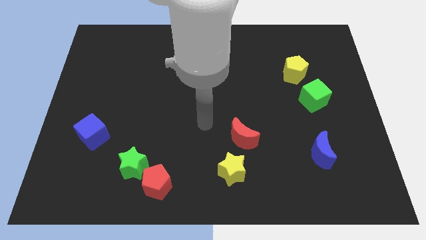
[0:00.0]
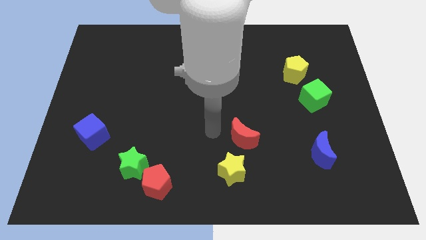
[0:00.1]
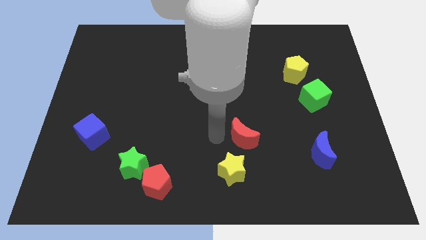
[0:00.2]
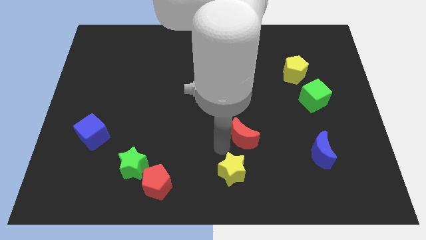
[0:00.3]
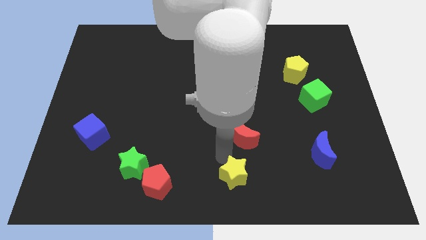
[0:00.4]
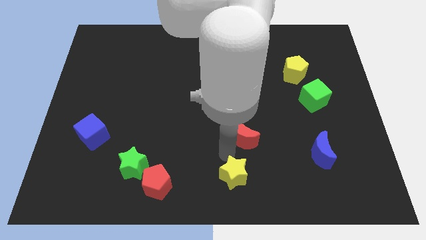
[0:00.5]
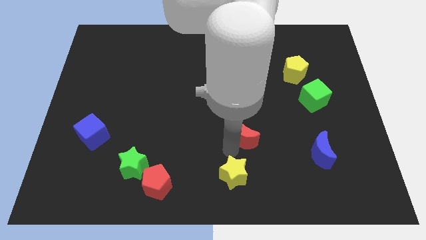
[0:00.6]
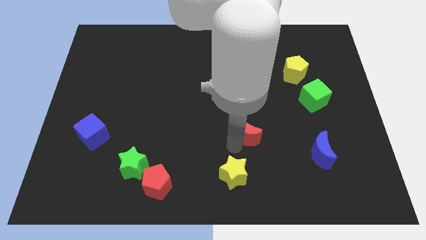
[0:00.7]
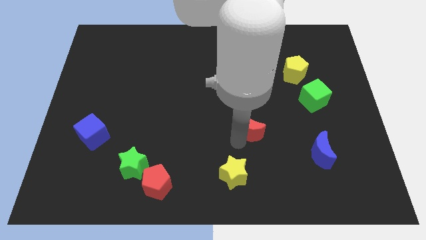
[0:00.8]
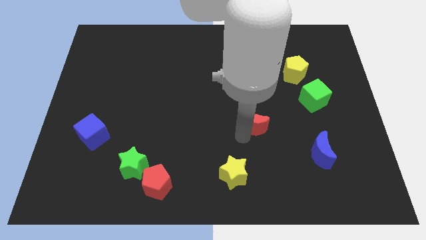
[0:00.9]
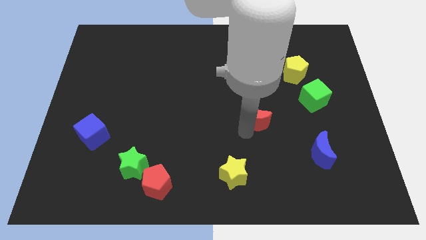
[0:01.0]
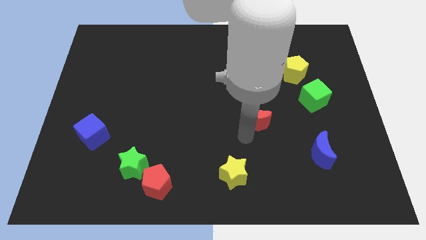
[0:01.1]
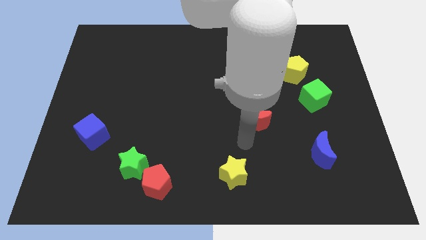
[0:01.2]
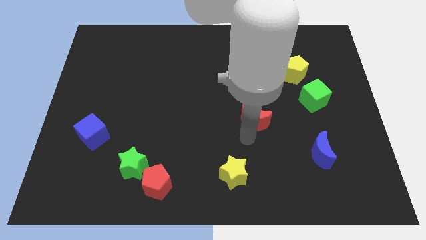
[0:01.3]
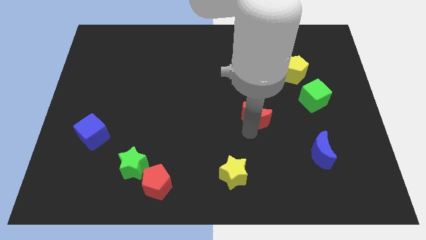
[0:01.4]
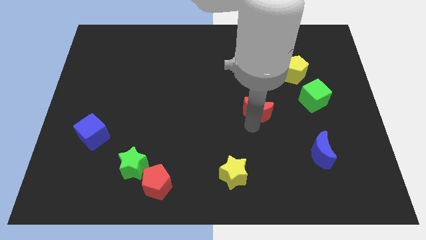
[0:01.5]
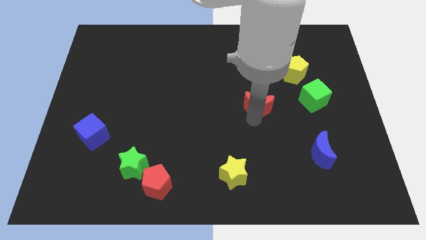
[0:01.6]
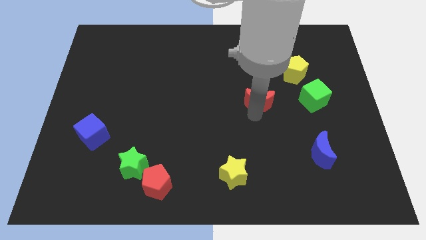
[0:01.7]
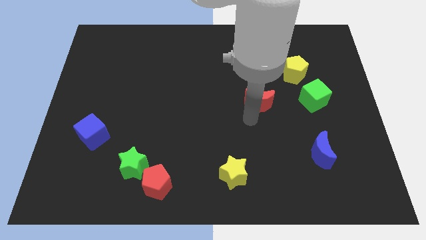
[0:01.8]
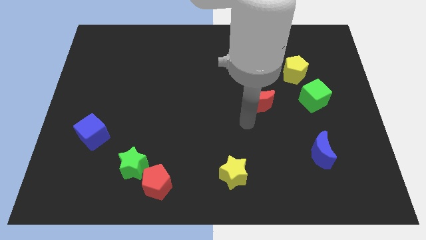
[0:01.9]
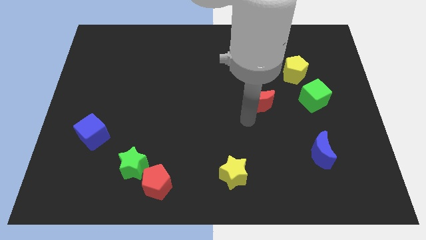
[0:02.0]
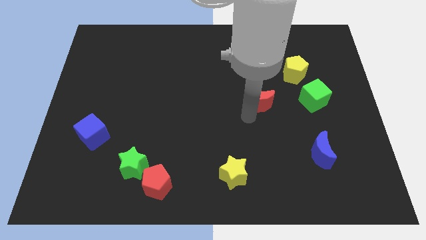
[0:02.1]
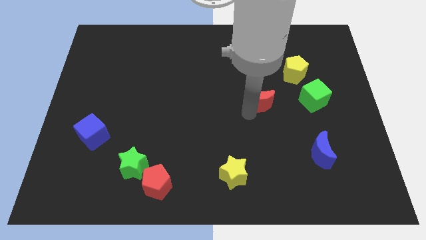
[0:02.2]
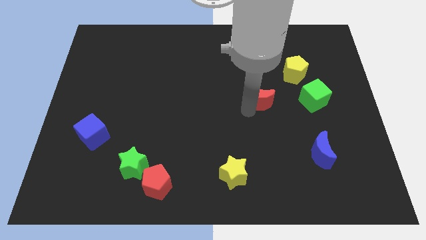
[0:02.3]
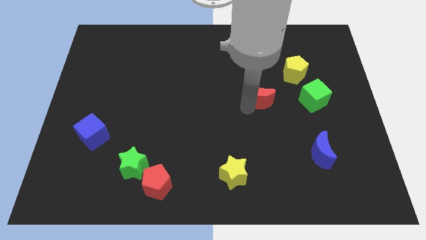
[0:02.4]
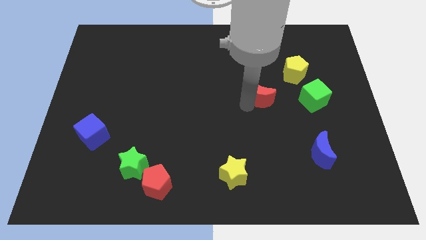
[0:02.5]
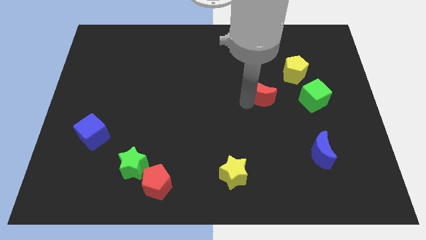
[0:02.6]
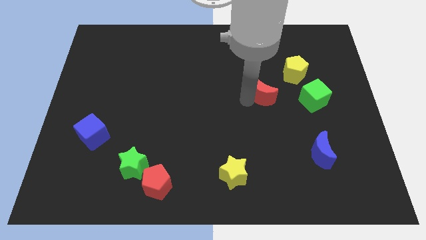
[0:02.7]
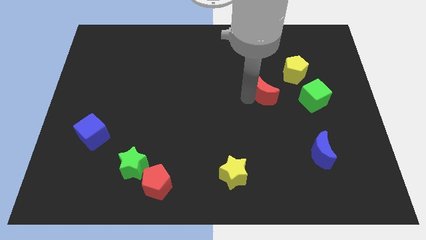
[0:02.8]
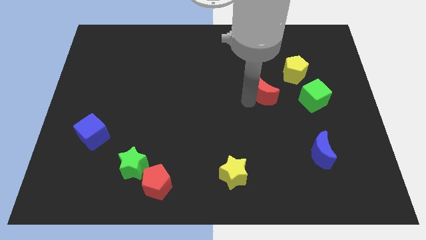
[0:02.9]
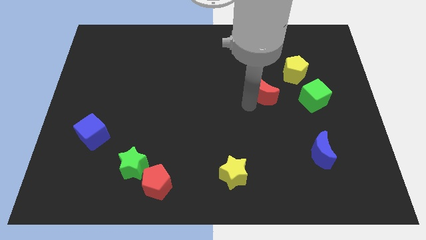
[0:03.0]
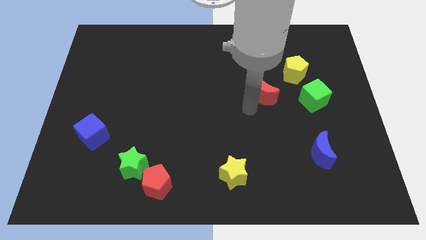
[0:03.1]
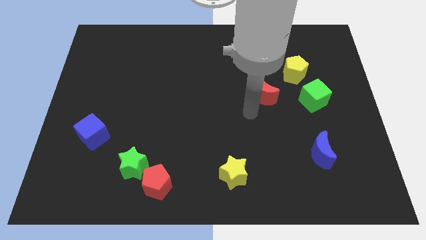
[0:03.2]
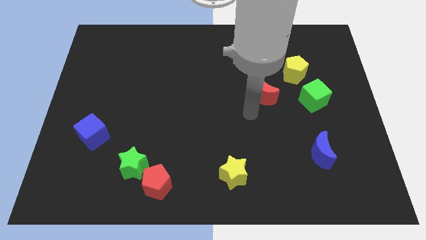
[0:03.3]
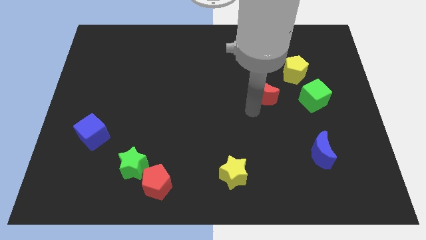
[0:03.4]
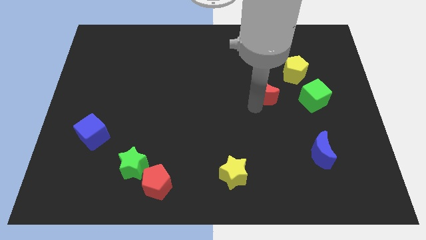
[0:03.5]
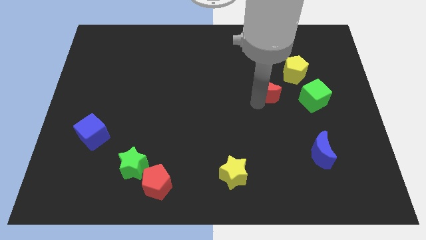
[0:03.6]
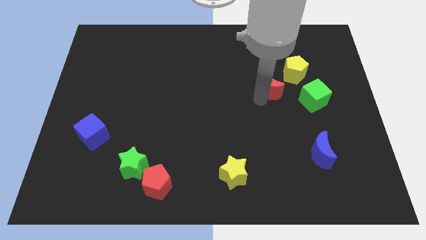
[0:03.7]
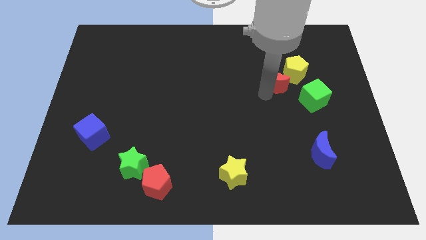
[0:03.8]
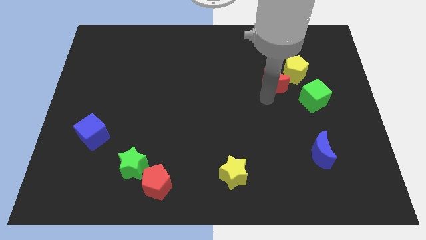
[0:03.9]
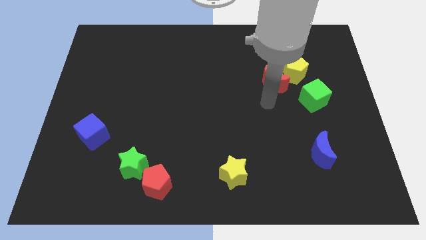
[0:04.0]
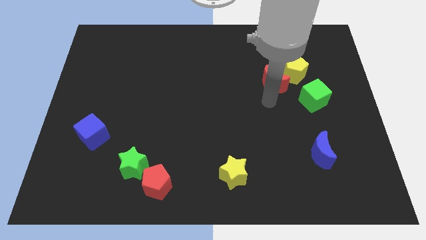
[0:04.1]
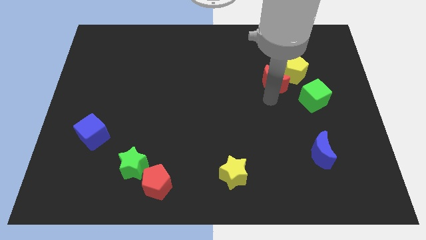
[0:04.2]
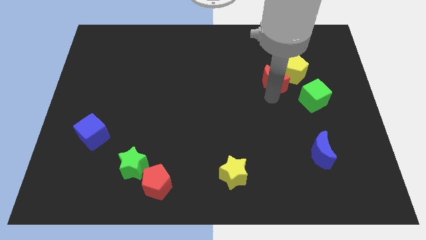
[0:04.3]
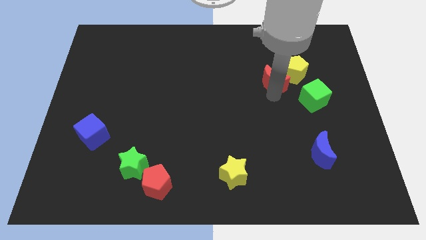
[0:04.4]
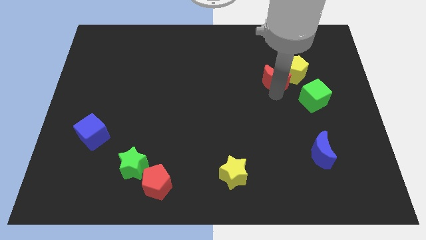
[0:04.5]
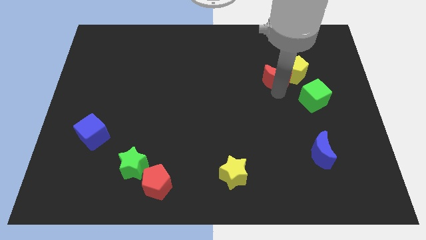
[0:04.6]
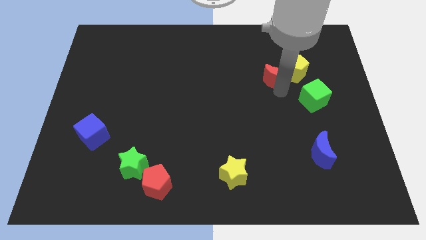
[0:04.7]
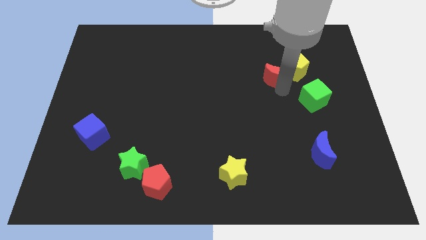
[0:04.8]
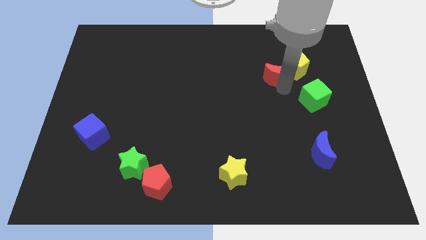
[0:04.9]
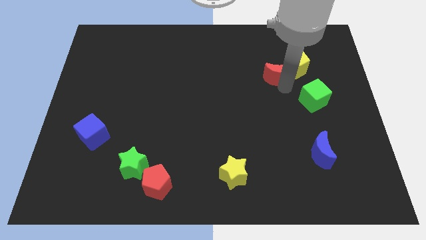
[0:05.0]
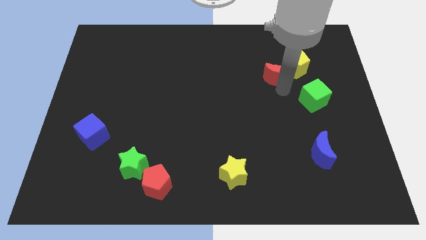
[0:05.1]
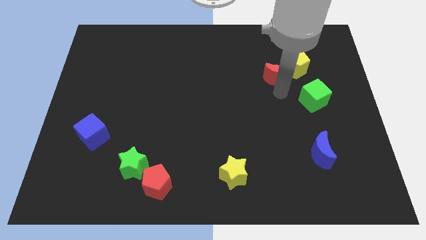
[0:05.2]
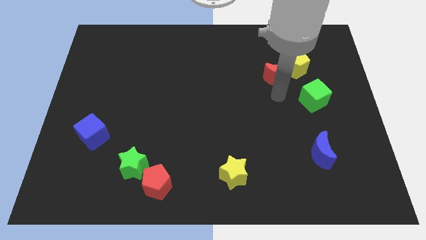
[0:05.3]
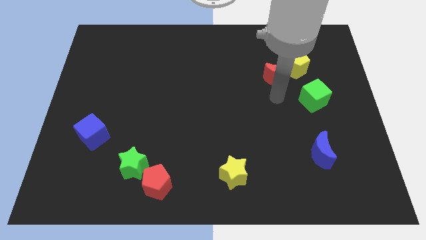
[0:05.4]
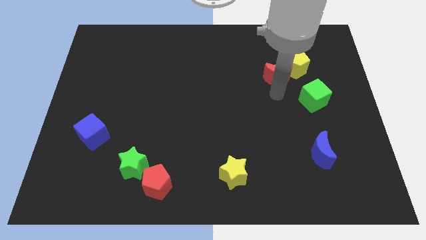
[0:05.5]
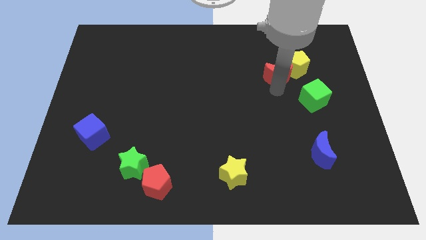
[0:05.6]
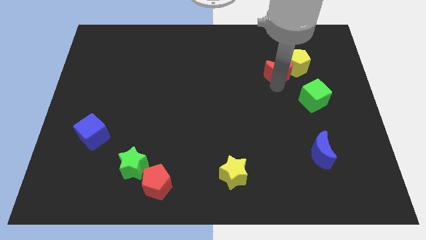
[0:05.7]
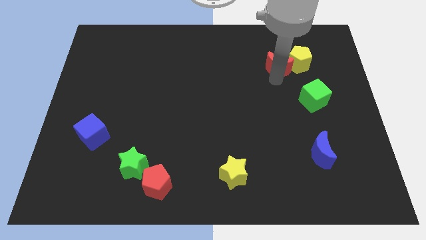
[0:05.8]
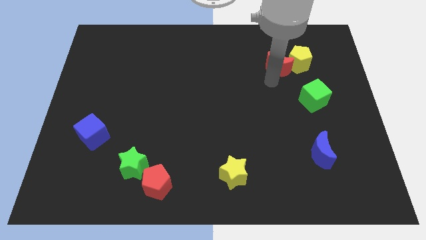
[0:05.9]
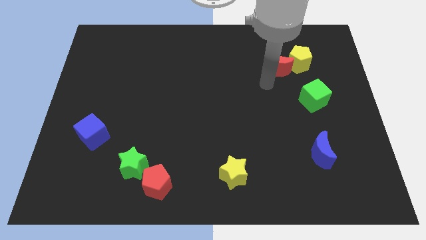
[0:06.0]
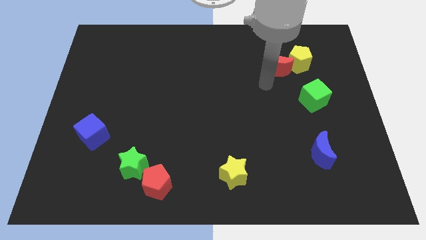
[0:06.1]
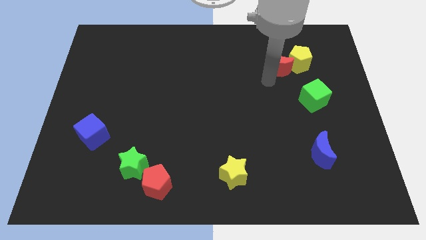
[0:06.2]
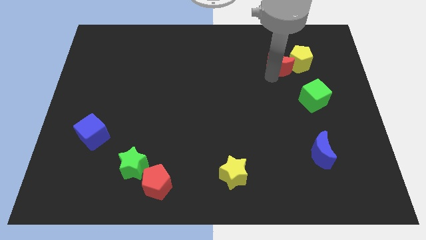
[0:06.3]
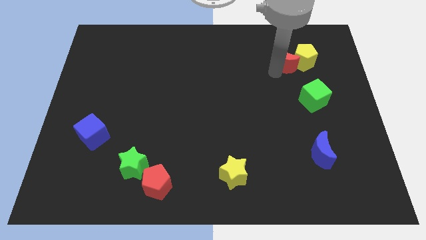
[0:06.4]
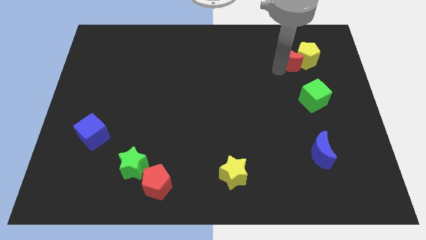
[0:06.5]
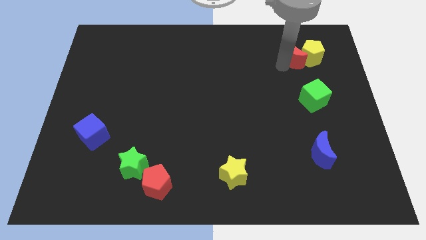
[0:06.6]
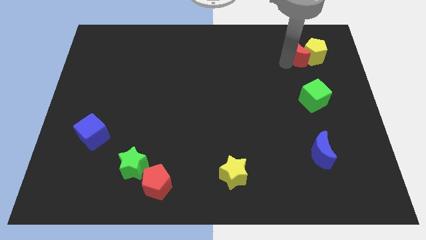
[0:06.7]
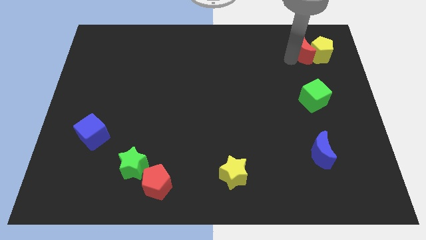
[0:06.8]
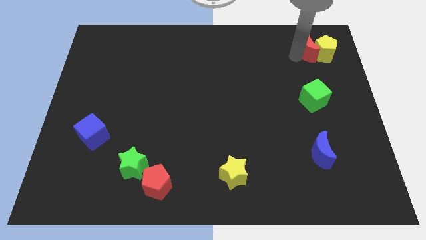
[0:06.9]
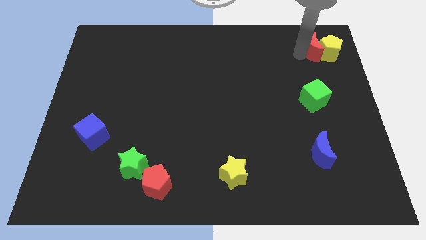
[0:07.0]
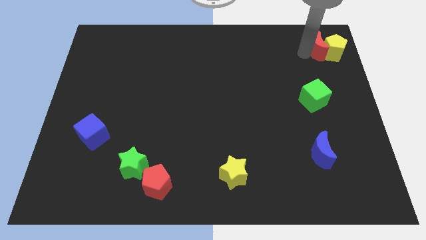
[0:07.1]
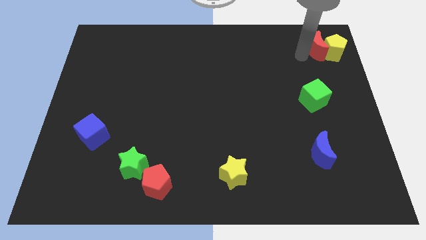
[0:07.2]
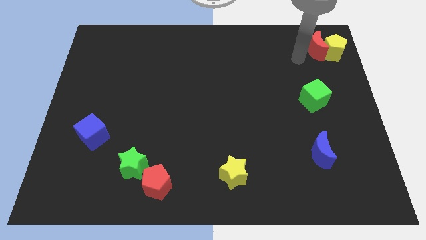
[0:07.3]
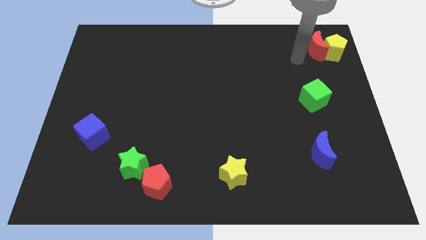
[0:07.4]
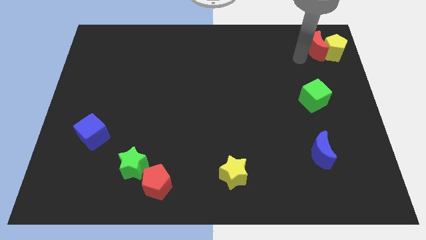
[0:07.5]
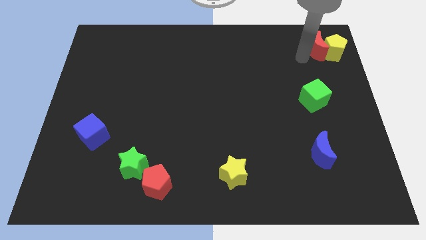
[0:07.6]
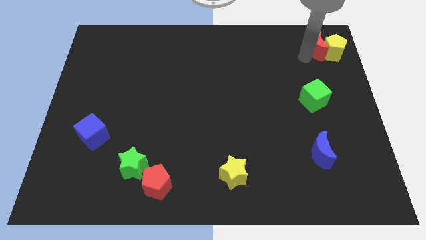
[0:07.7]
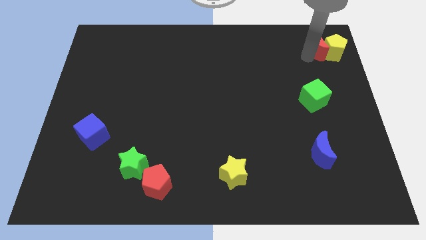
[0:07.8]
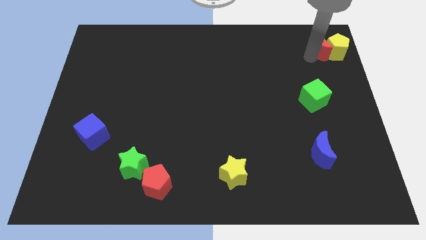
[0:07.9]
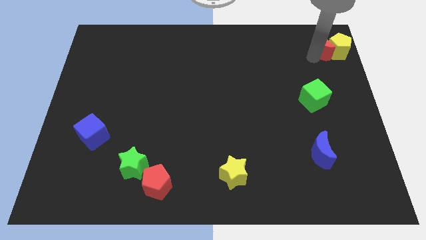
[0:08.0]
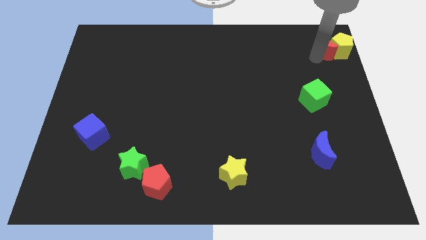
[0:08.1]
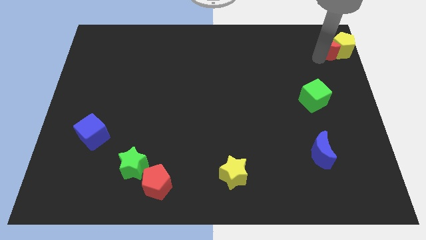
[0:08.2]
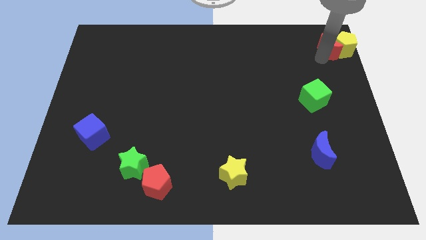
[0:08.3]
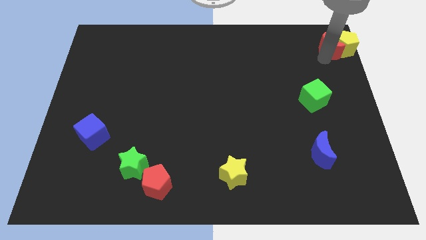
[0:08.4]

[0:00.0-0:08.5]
push the red moon to the top right corner
